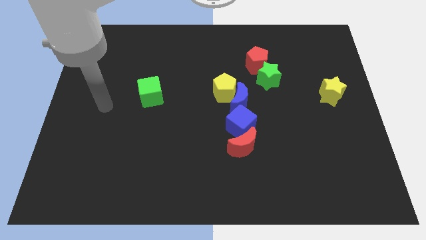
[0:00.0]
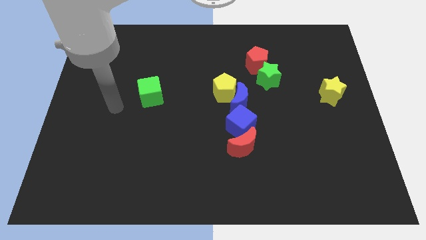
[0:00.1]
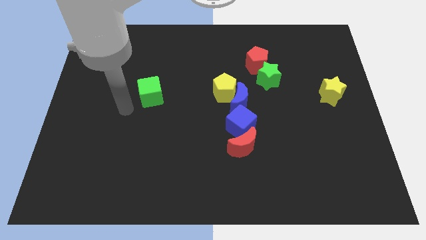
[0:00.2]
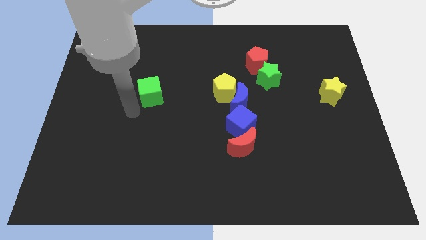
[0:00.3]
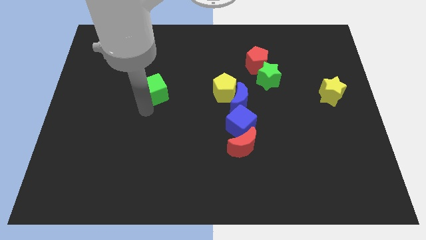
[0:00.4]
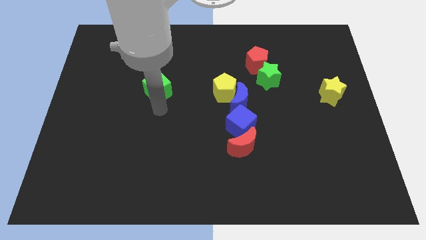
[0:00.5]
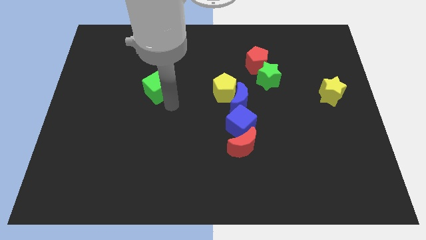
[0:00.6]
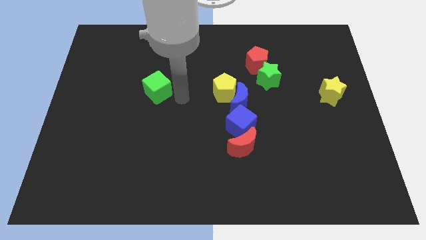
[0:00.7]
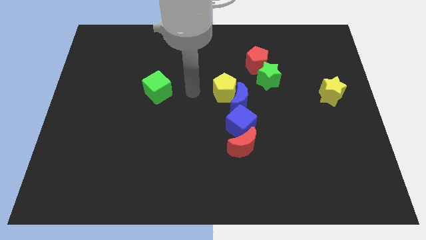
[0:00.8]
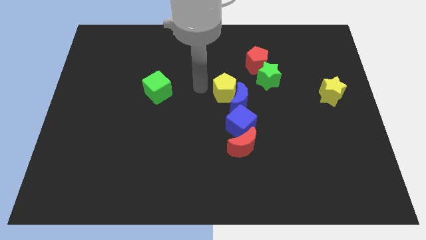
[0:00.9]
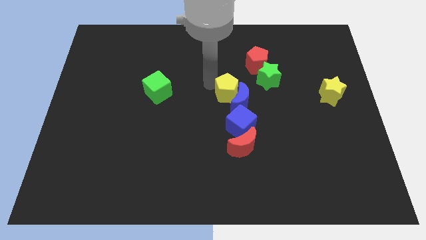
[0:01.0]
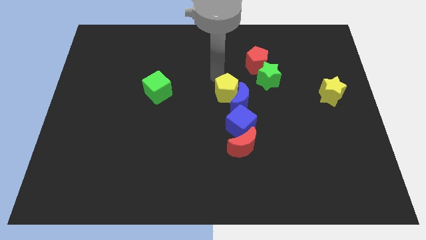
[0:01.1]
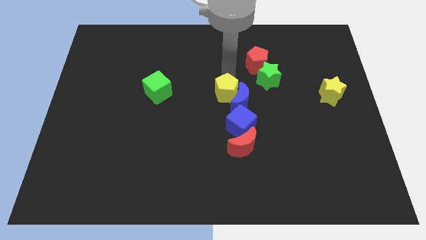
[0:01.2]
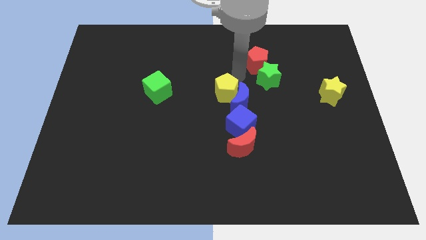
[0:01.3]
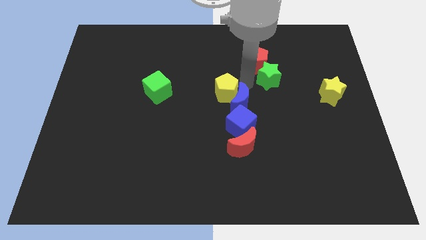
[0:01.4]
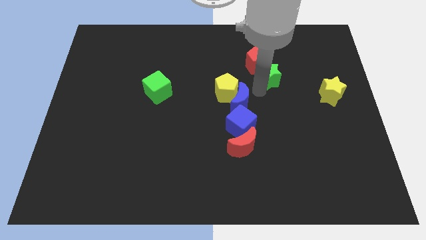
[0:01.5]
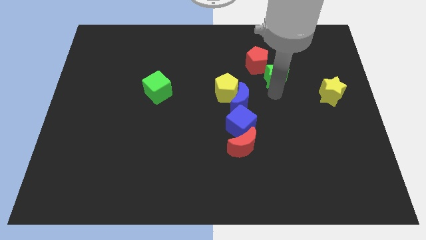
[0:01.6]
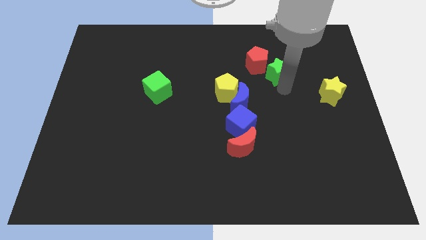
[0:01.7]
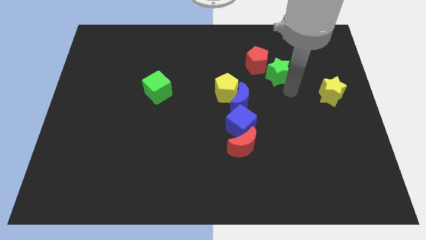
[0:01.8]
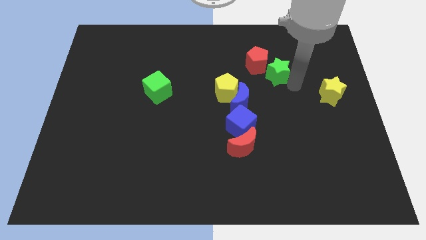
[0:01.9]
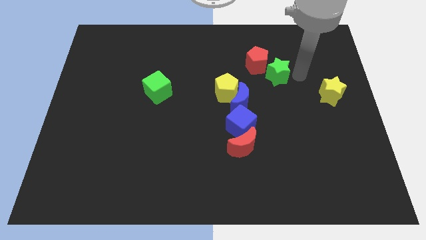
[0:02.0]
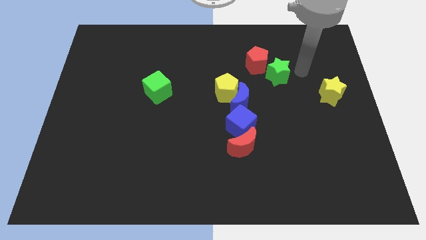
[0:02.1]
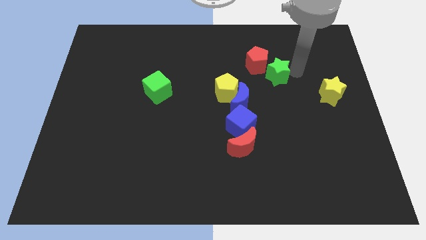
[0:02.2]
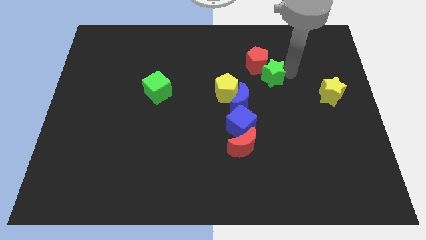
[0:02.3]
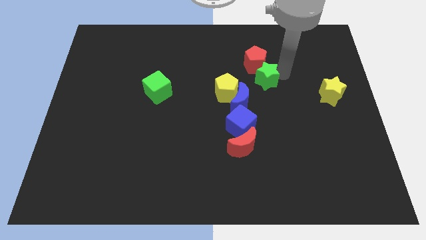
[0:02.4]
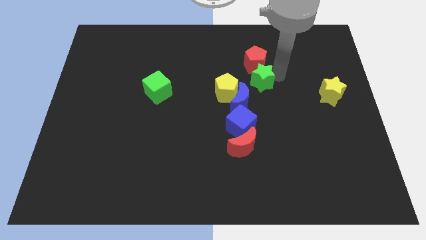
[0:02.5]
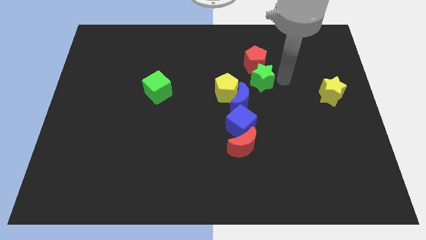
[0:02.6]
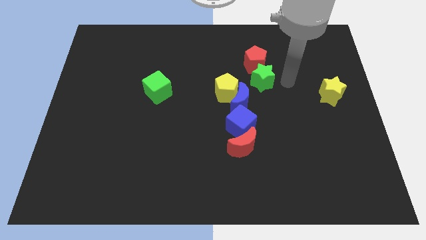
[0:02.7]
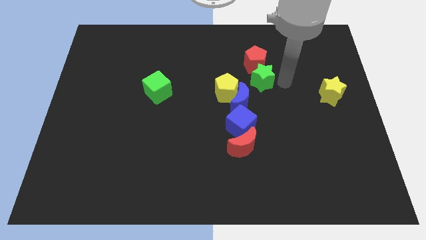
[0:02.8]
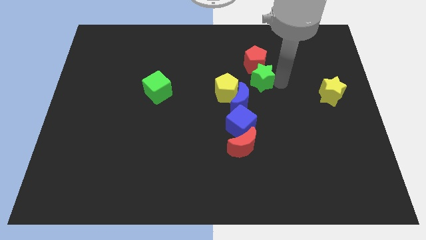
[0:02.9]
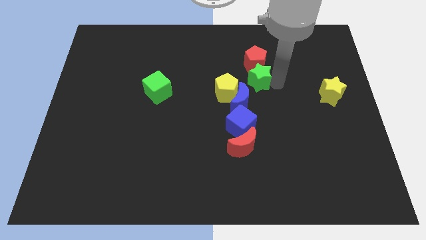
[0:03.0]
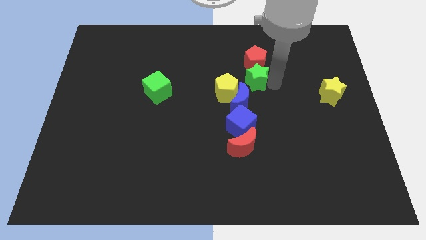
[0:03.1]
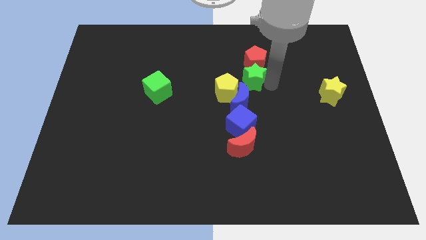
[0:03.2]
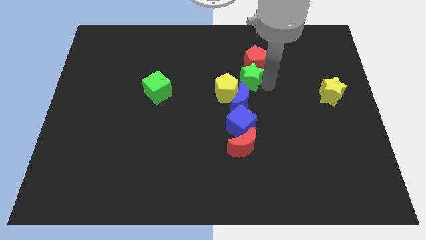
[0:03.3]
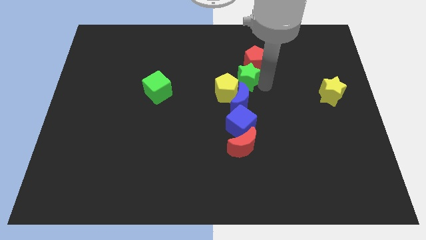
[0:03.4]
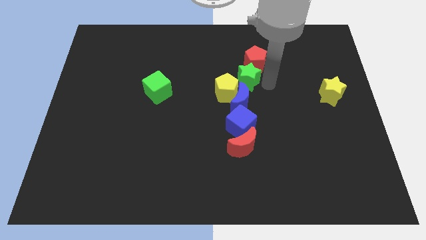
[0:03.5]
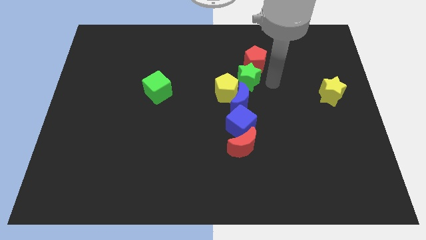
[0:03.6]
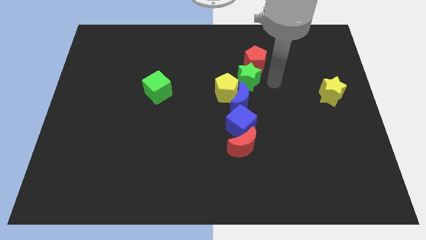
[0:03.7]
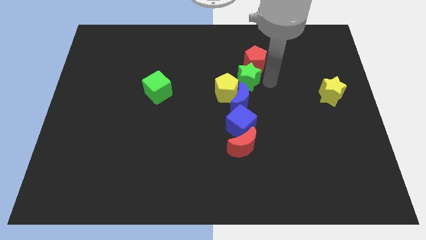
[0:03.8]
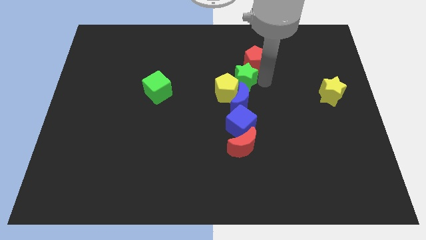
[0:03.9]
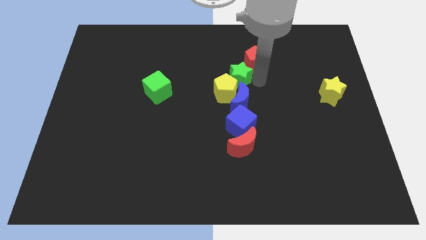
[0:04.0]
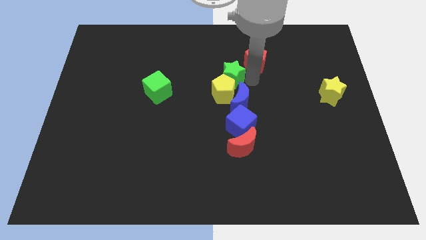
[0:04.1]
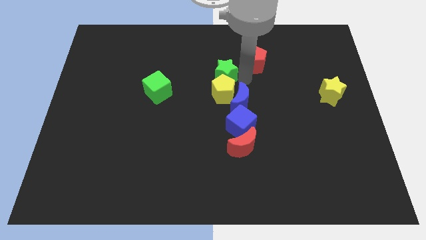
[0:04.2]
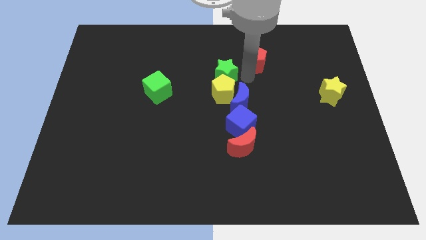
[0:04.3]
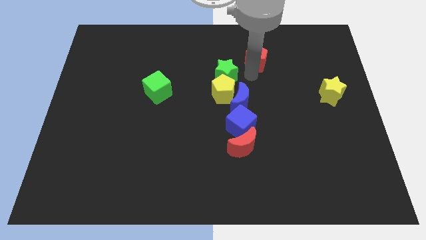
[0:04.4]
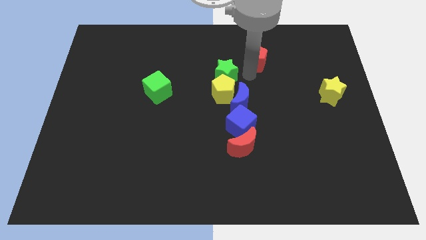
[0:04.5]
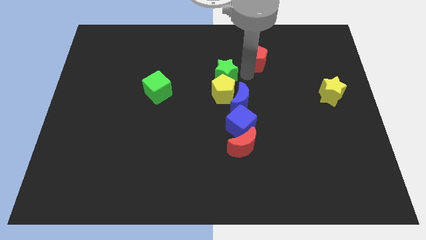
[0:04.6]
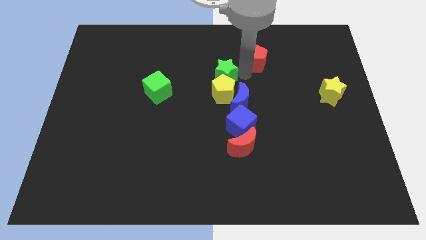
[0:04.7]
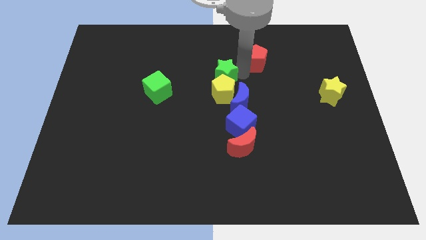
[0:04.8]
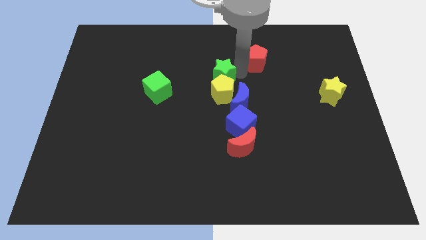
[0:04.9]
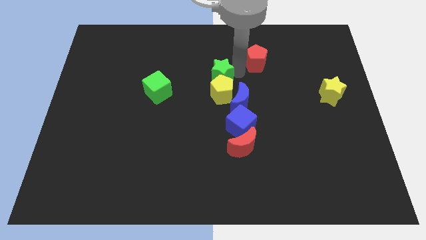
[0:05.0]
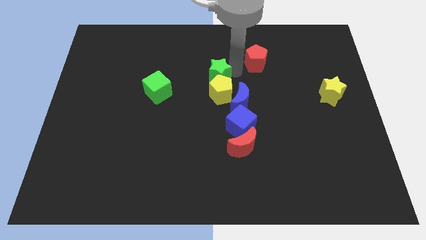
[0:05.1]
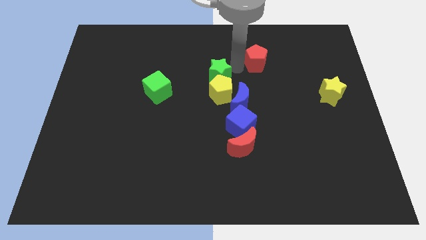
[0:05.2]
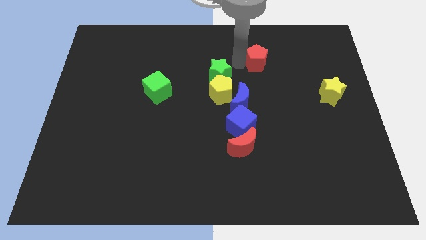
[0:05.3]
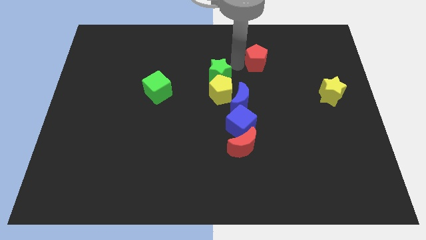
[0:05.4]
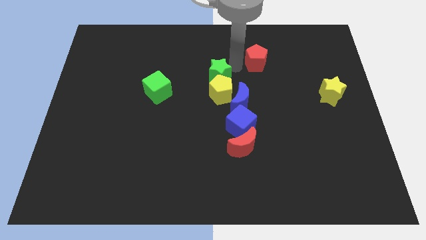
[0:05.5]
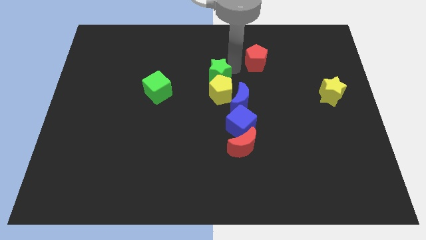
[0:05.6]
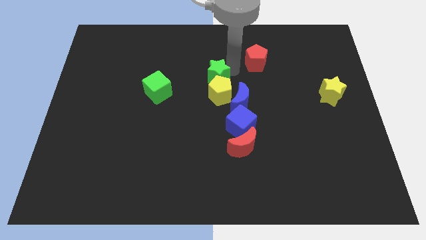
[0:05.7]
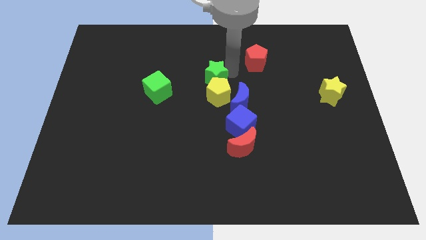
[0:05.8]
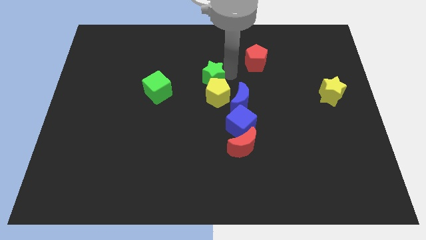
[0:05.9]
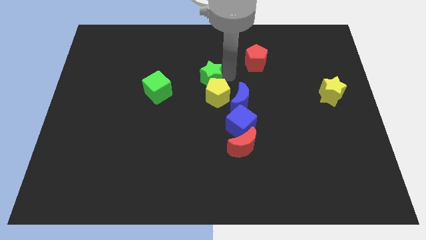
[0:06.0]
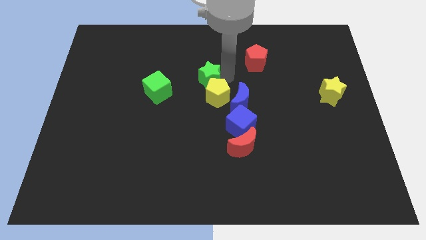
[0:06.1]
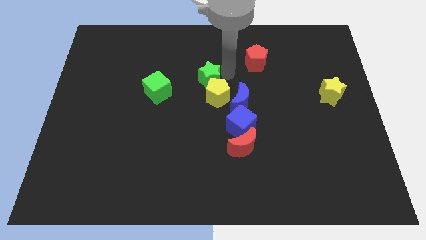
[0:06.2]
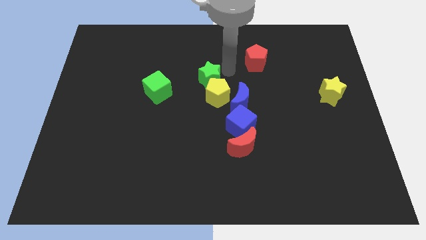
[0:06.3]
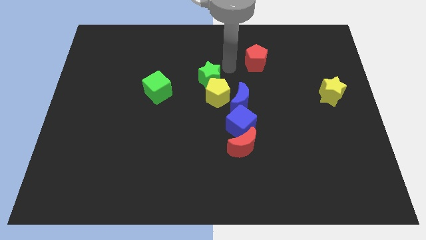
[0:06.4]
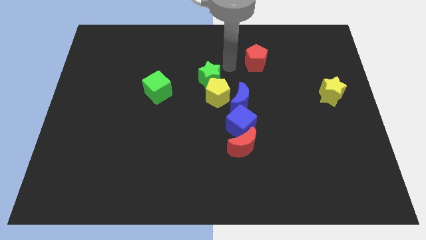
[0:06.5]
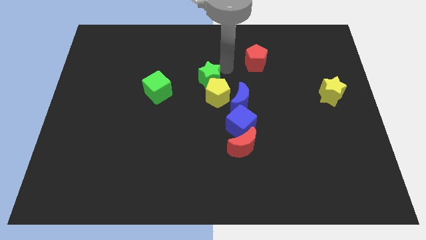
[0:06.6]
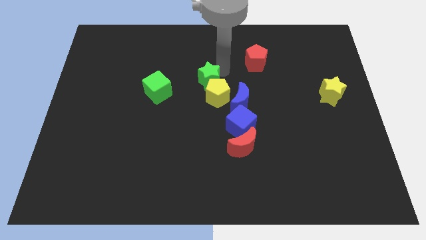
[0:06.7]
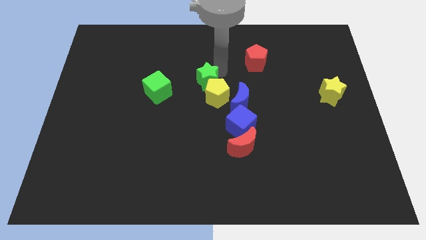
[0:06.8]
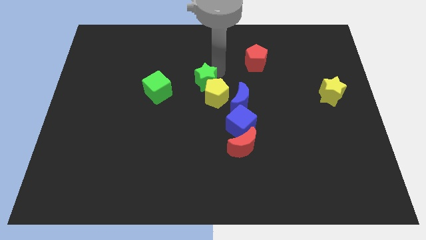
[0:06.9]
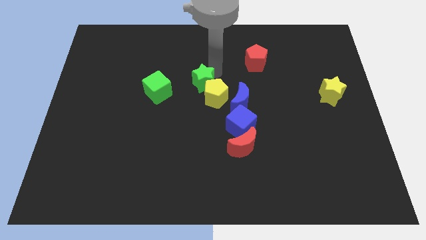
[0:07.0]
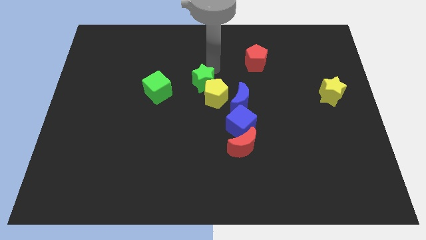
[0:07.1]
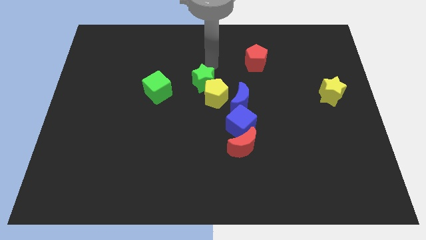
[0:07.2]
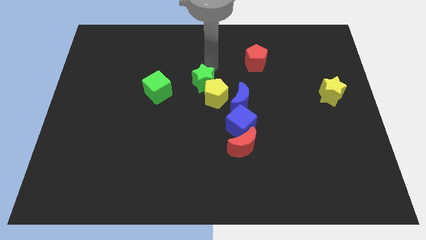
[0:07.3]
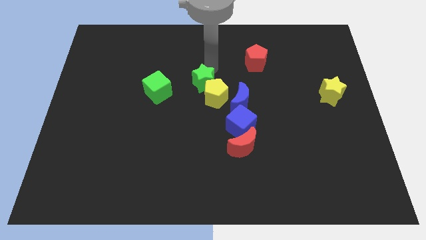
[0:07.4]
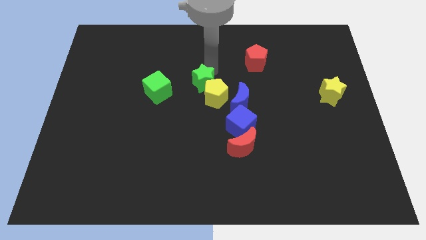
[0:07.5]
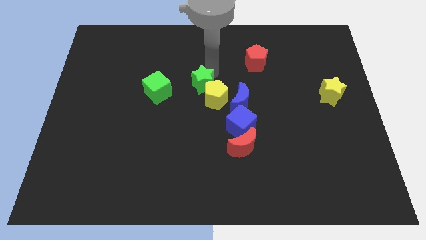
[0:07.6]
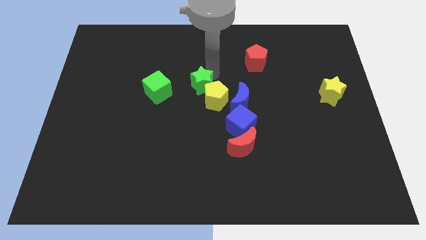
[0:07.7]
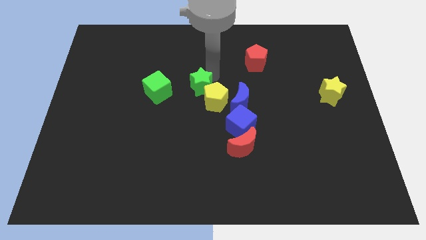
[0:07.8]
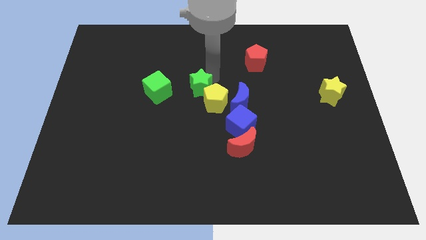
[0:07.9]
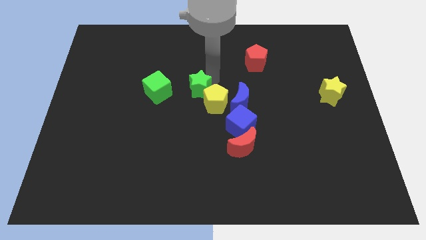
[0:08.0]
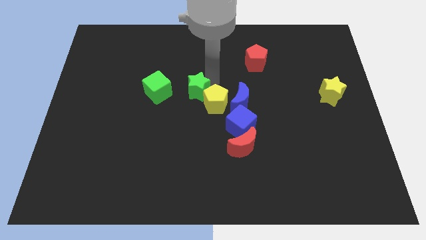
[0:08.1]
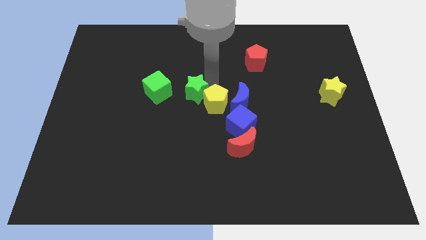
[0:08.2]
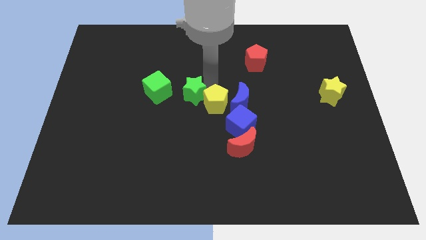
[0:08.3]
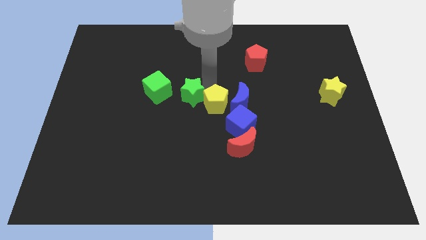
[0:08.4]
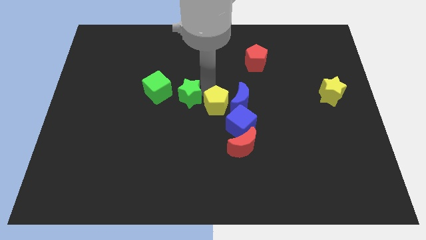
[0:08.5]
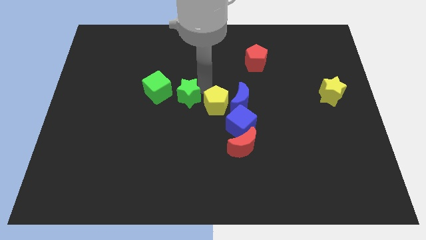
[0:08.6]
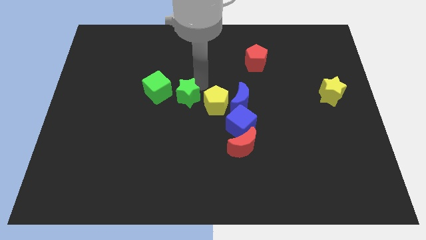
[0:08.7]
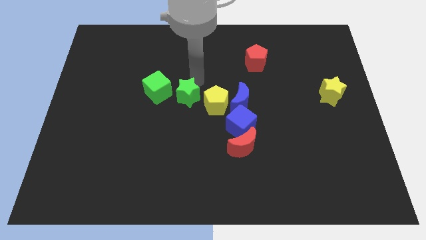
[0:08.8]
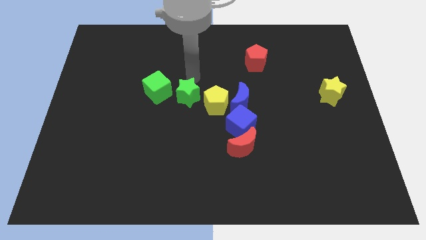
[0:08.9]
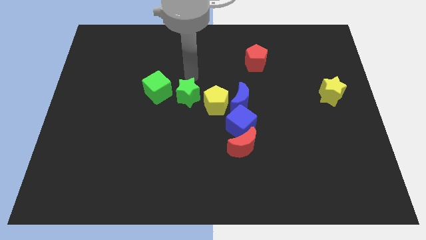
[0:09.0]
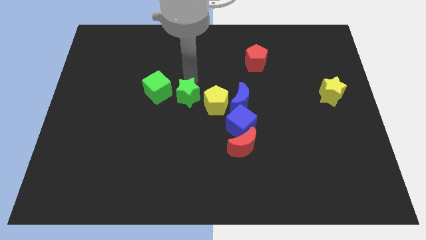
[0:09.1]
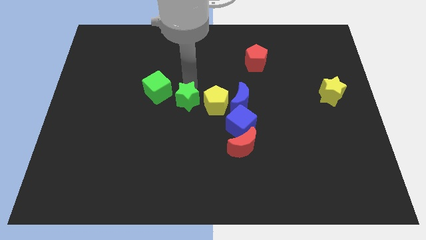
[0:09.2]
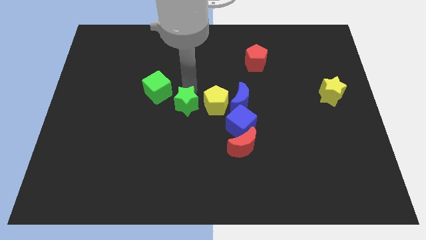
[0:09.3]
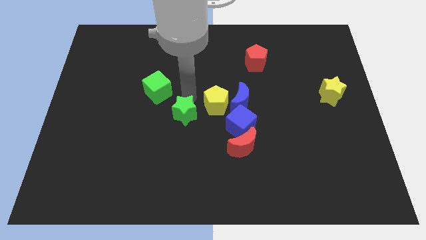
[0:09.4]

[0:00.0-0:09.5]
slide the green star diagonally down and left
